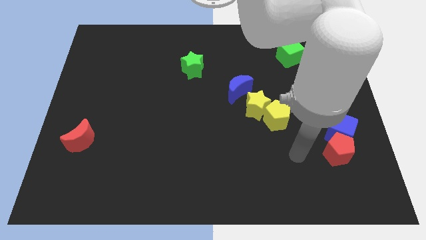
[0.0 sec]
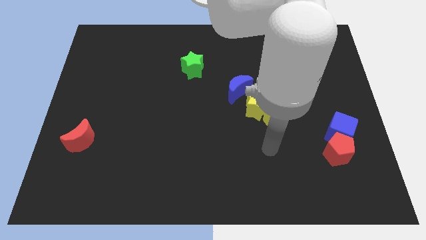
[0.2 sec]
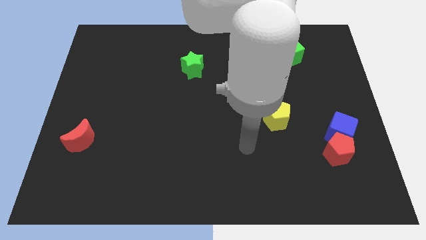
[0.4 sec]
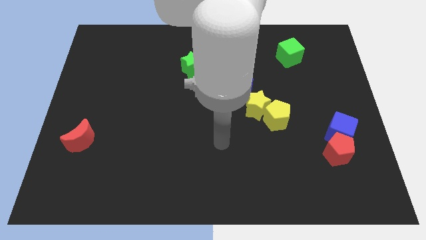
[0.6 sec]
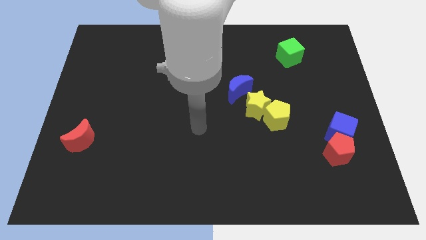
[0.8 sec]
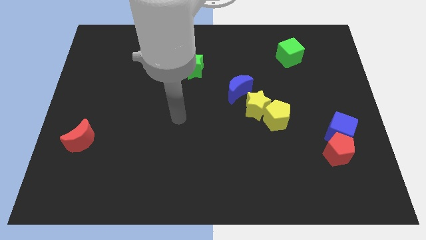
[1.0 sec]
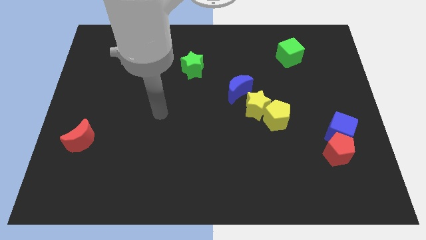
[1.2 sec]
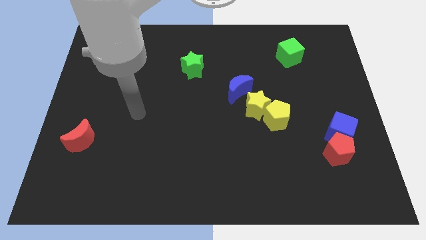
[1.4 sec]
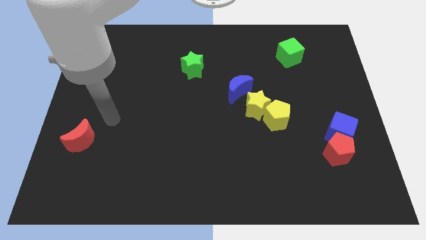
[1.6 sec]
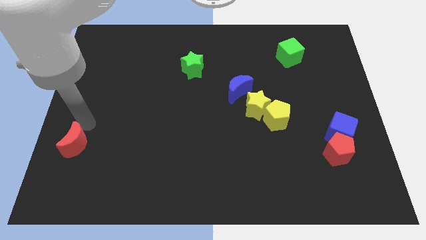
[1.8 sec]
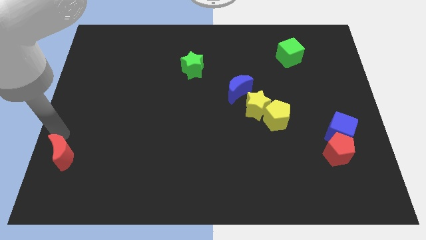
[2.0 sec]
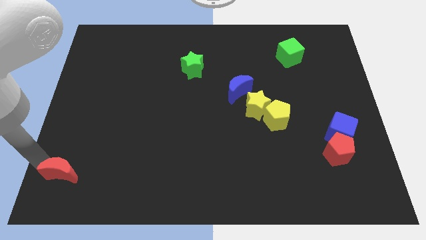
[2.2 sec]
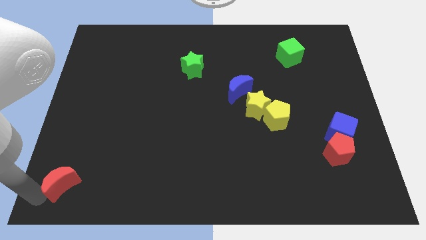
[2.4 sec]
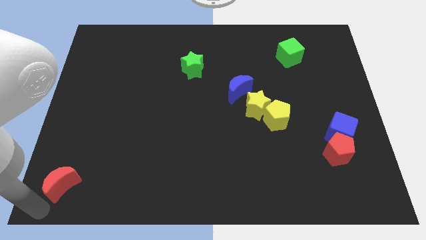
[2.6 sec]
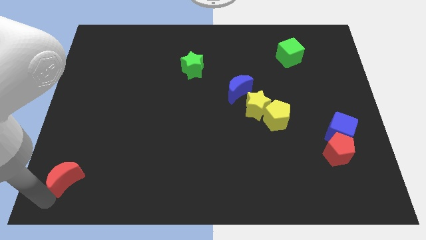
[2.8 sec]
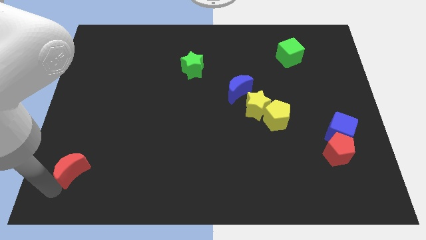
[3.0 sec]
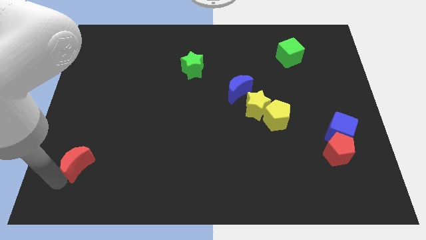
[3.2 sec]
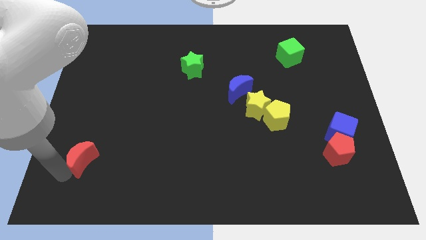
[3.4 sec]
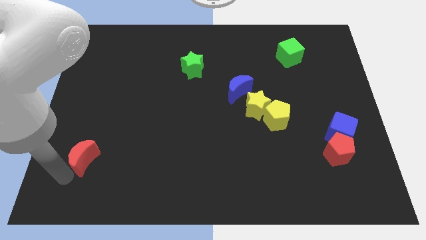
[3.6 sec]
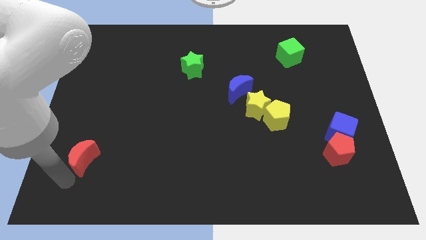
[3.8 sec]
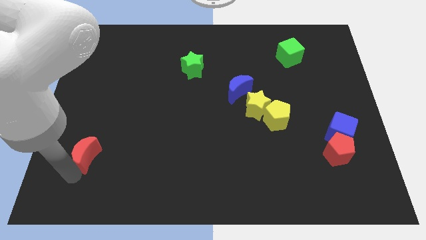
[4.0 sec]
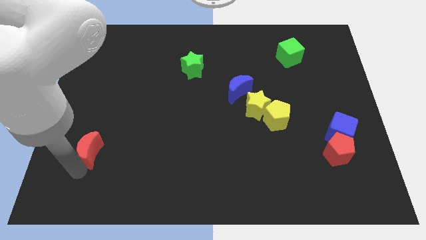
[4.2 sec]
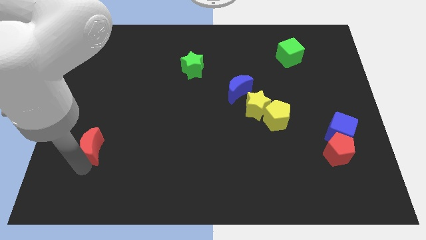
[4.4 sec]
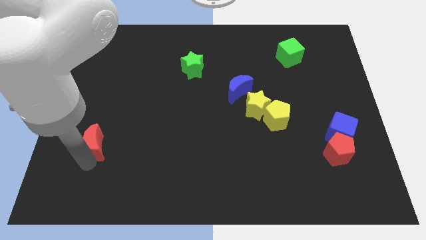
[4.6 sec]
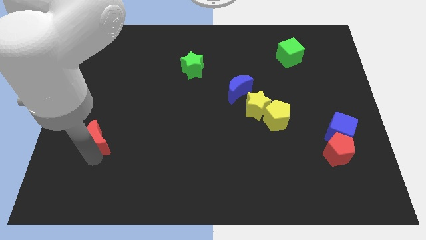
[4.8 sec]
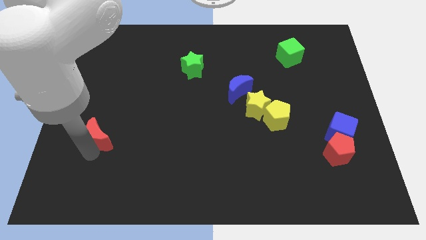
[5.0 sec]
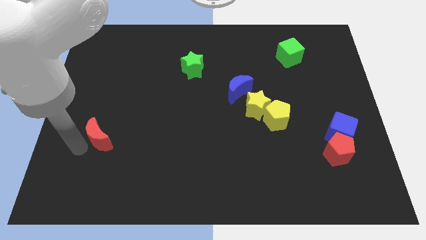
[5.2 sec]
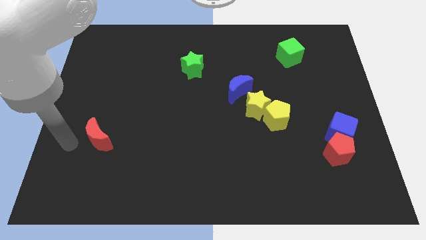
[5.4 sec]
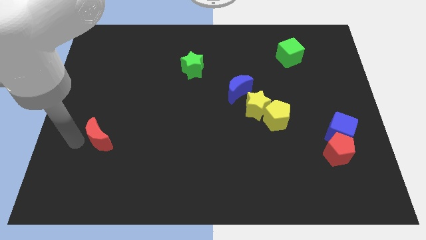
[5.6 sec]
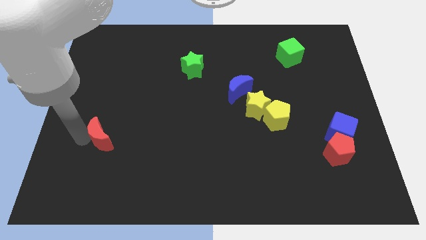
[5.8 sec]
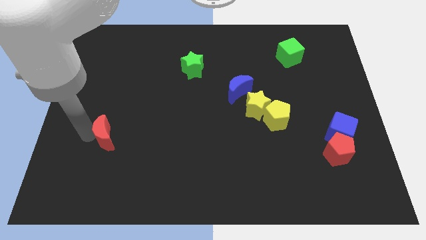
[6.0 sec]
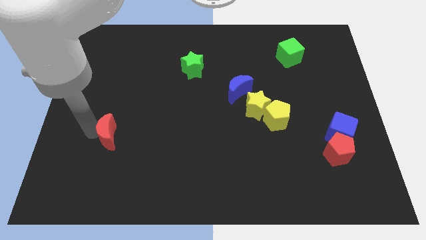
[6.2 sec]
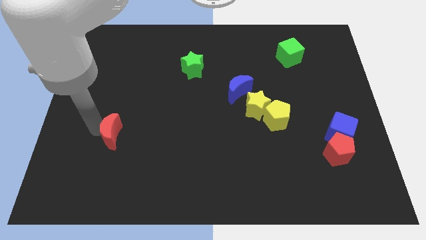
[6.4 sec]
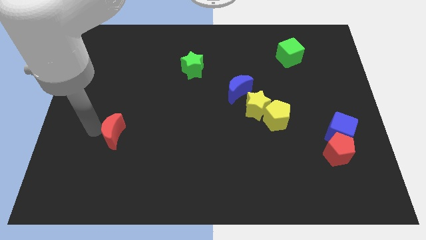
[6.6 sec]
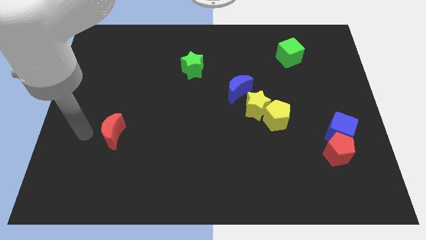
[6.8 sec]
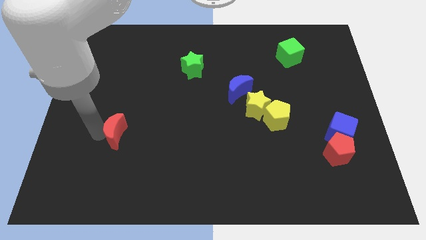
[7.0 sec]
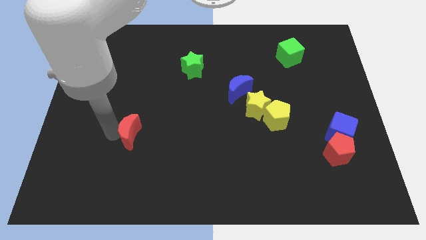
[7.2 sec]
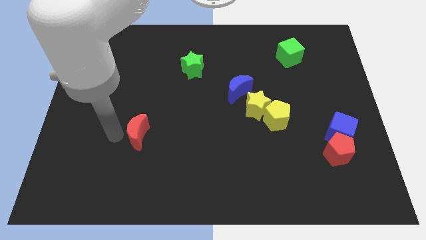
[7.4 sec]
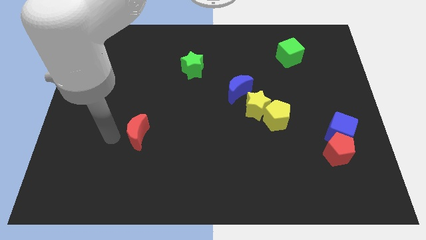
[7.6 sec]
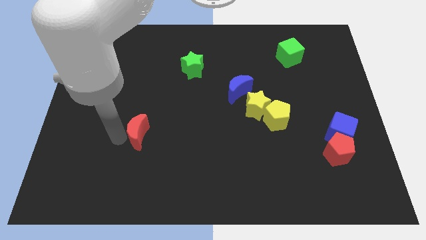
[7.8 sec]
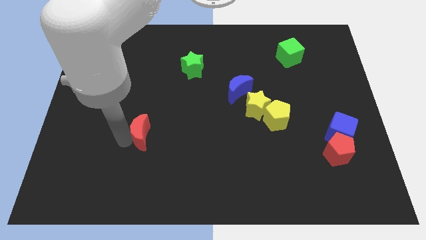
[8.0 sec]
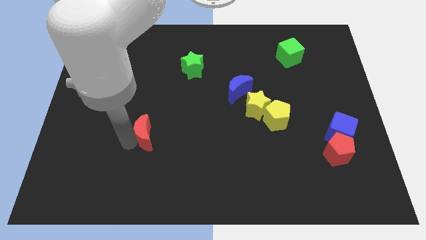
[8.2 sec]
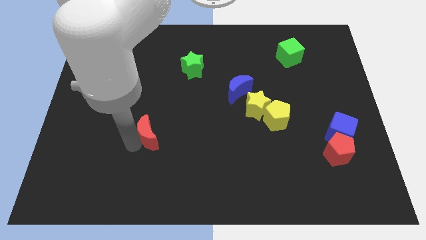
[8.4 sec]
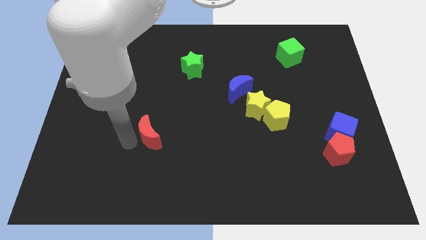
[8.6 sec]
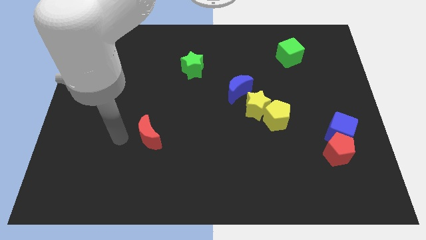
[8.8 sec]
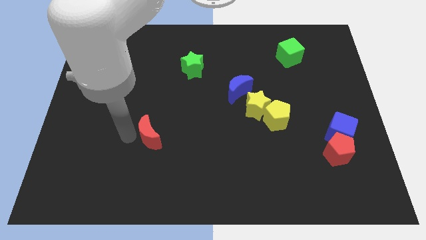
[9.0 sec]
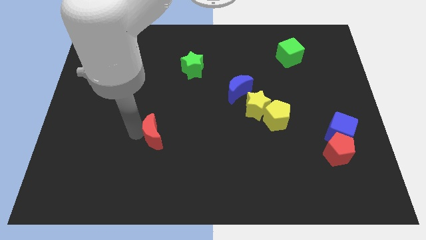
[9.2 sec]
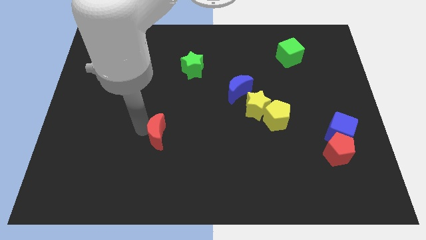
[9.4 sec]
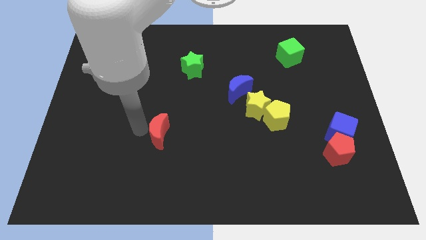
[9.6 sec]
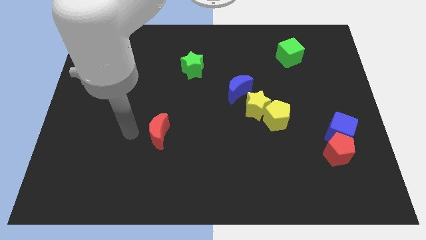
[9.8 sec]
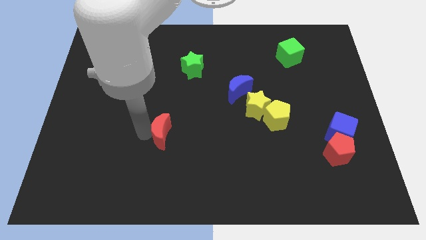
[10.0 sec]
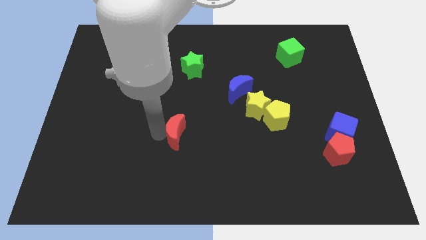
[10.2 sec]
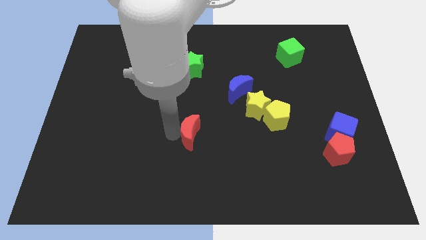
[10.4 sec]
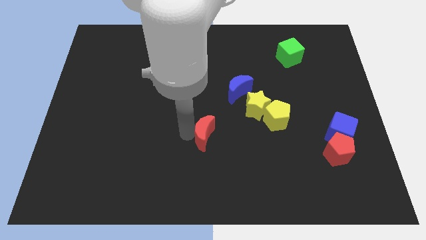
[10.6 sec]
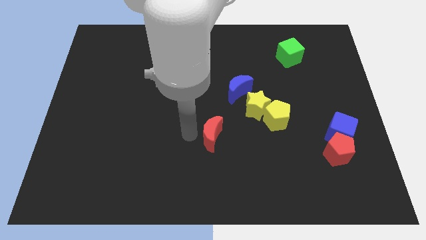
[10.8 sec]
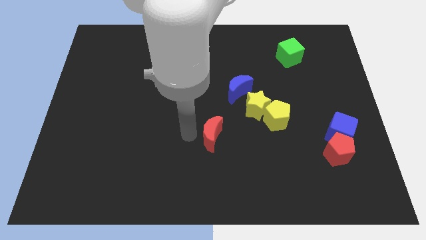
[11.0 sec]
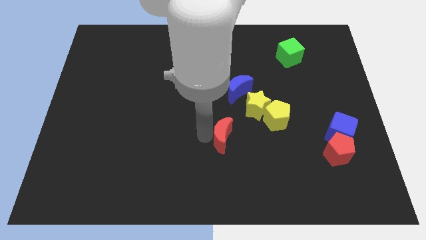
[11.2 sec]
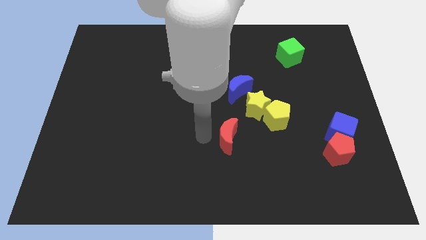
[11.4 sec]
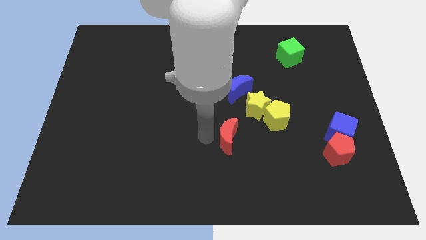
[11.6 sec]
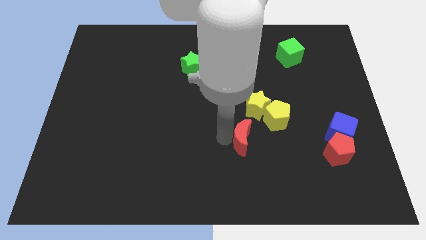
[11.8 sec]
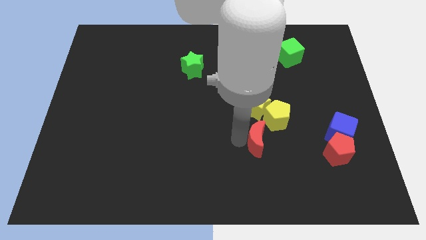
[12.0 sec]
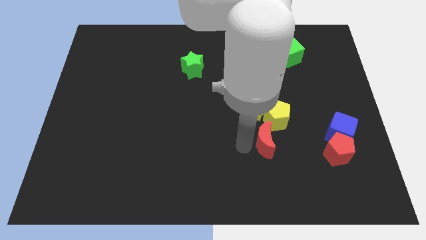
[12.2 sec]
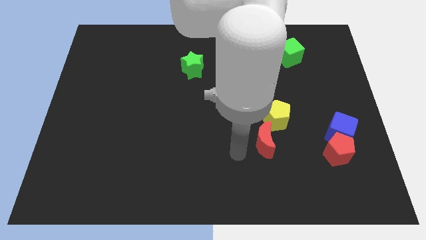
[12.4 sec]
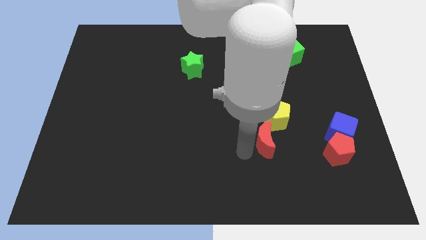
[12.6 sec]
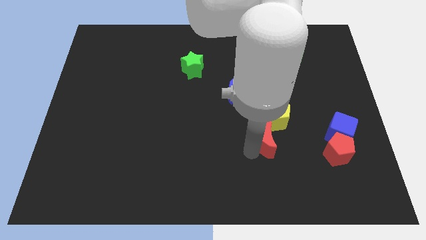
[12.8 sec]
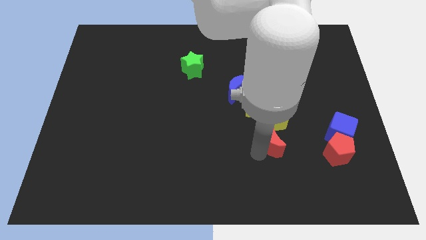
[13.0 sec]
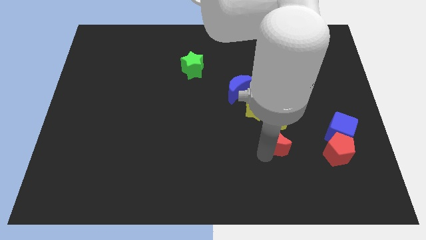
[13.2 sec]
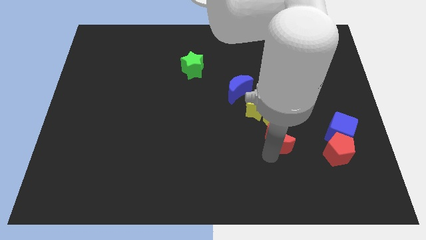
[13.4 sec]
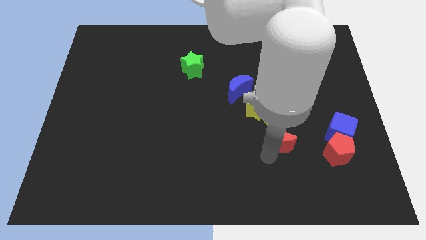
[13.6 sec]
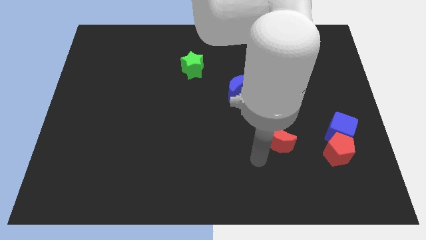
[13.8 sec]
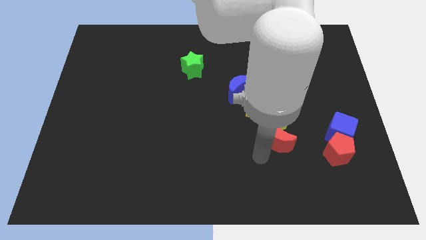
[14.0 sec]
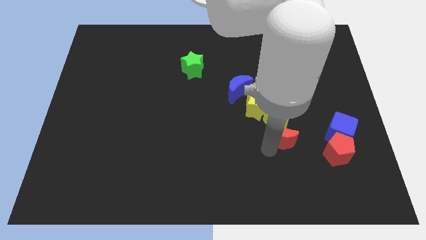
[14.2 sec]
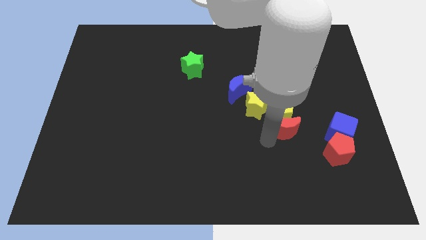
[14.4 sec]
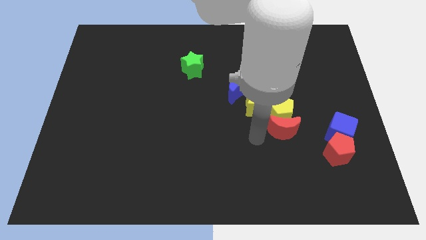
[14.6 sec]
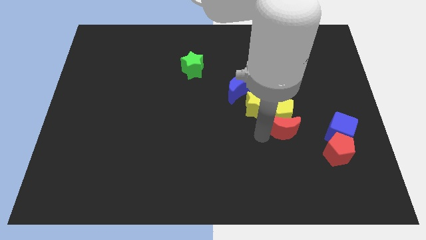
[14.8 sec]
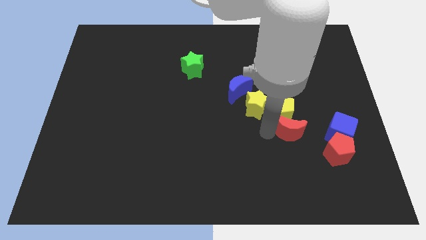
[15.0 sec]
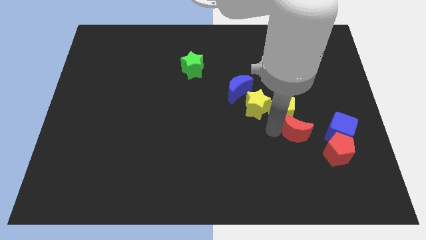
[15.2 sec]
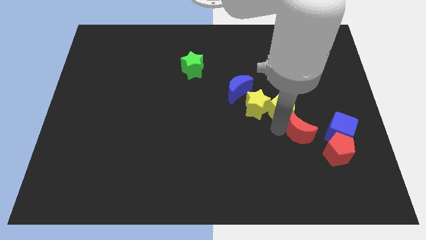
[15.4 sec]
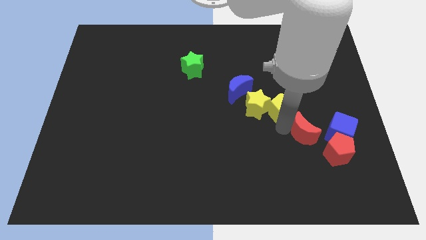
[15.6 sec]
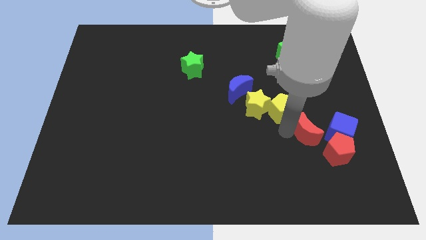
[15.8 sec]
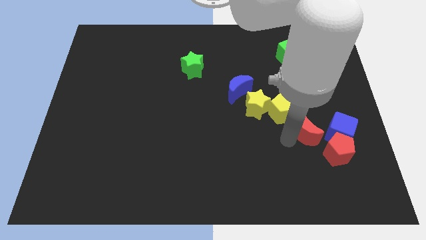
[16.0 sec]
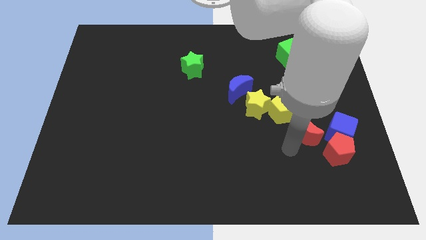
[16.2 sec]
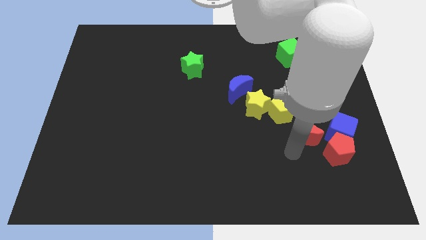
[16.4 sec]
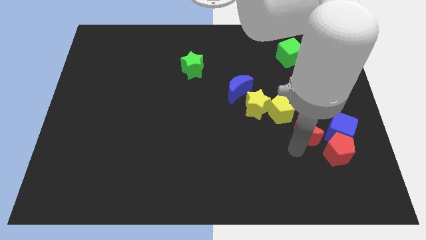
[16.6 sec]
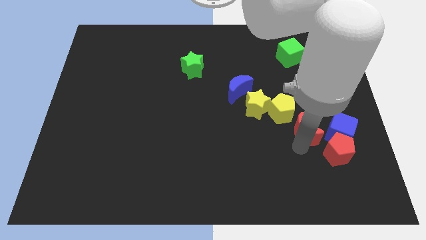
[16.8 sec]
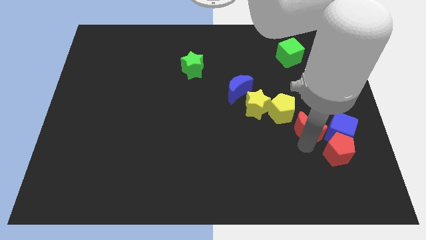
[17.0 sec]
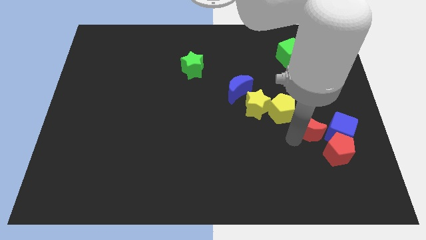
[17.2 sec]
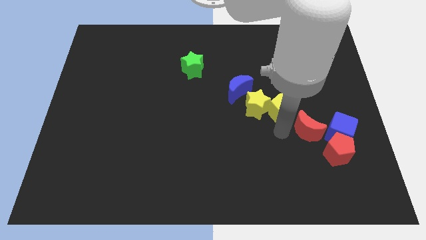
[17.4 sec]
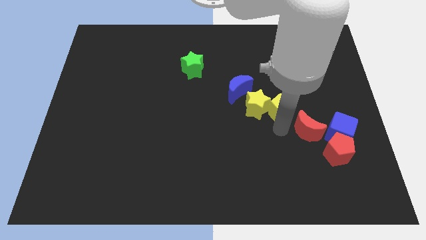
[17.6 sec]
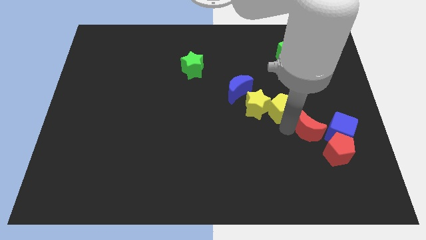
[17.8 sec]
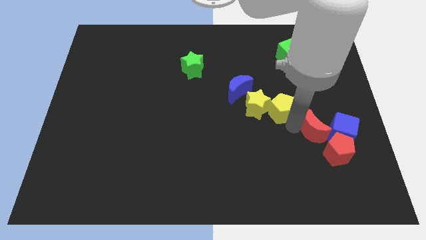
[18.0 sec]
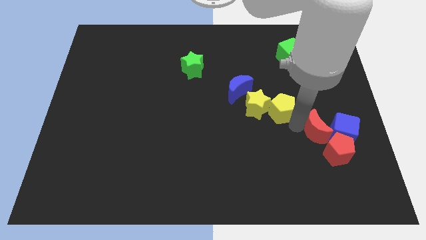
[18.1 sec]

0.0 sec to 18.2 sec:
push the red moon next to the blue cube
